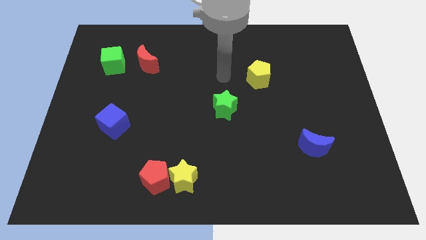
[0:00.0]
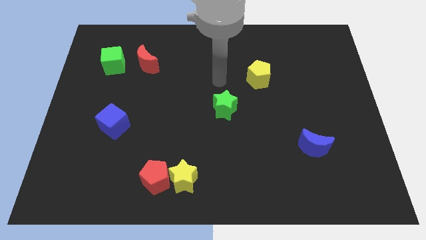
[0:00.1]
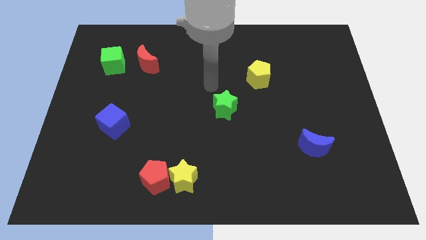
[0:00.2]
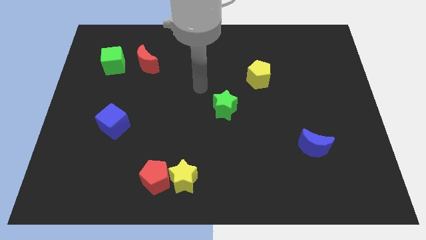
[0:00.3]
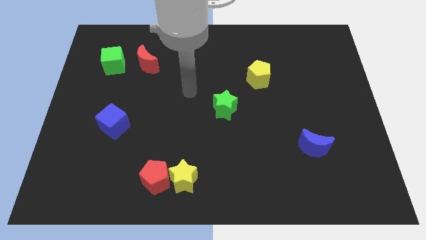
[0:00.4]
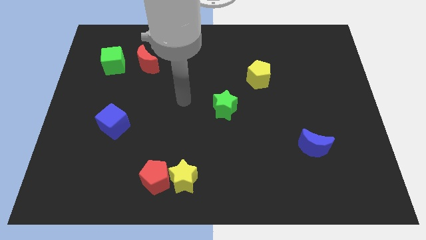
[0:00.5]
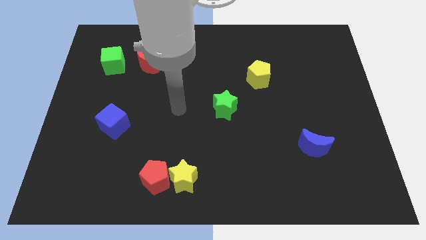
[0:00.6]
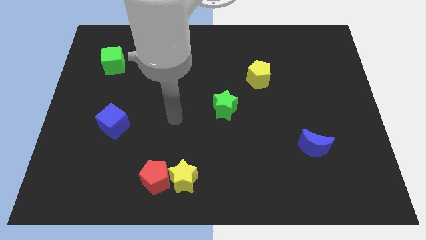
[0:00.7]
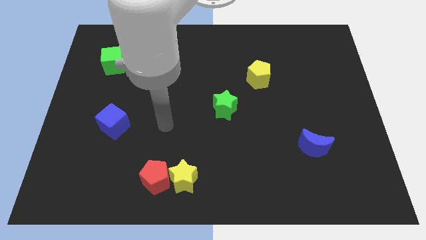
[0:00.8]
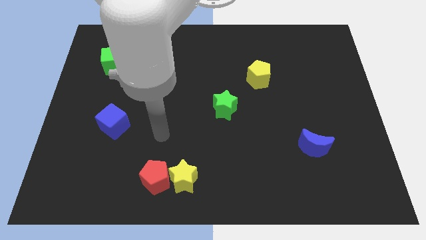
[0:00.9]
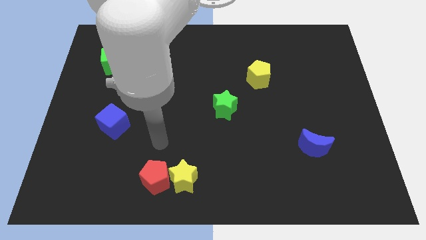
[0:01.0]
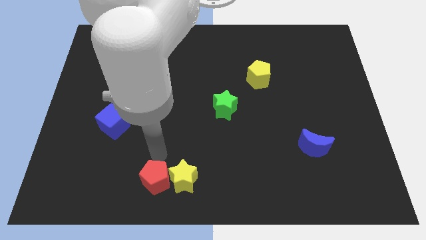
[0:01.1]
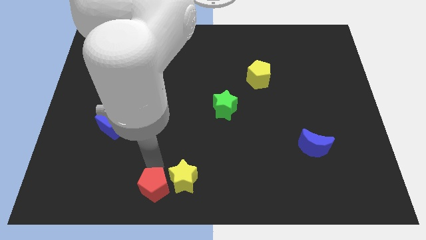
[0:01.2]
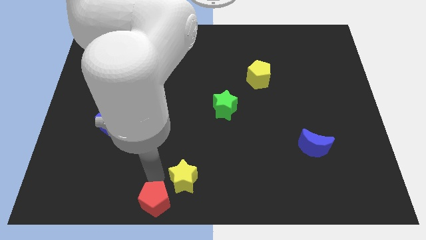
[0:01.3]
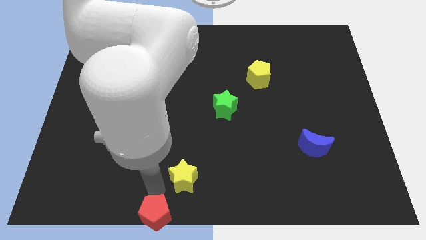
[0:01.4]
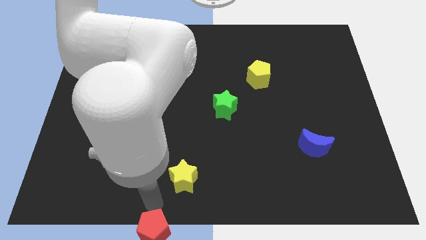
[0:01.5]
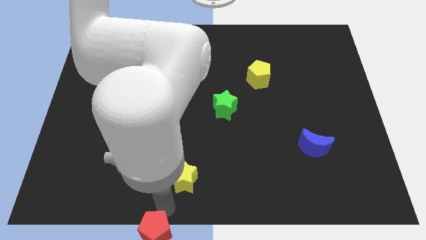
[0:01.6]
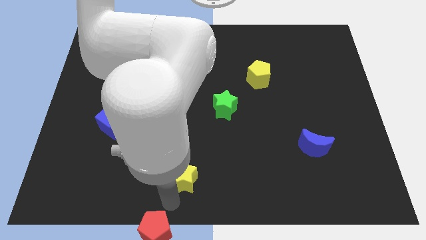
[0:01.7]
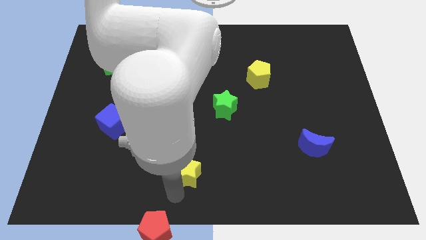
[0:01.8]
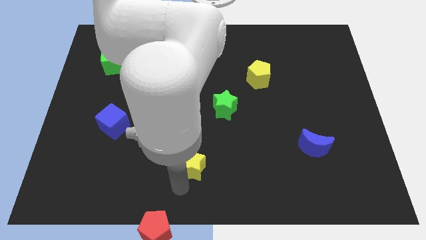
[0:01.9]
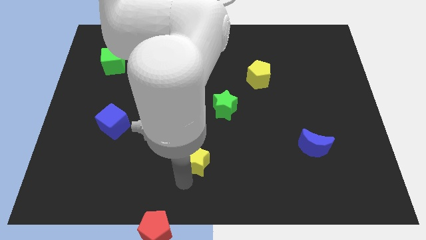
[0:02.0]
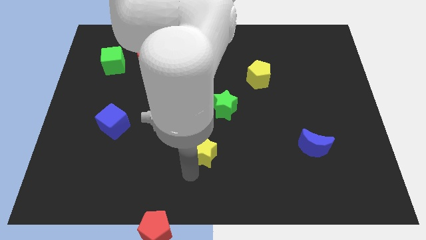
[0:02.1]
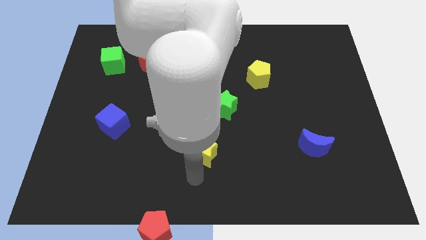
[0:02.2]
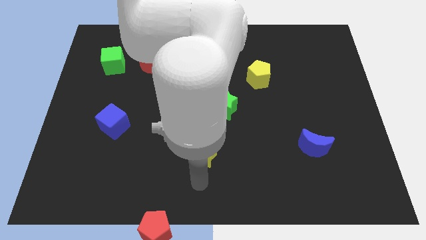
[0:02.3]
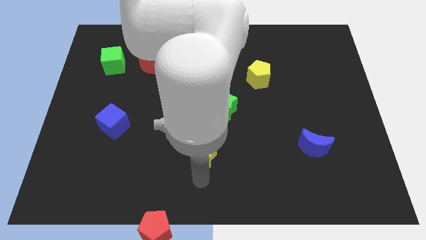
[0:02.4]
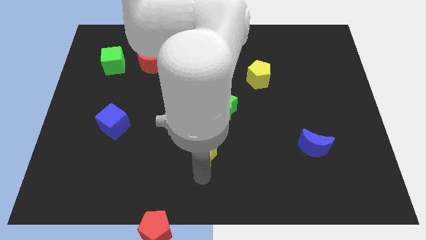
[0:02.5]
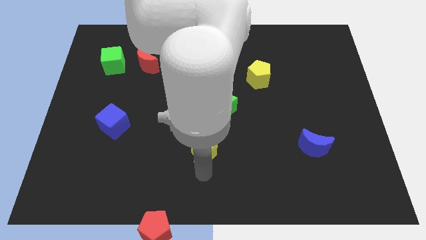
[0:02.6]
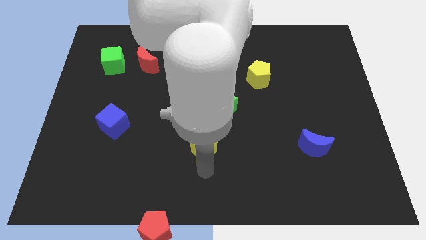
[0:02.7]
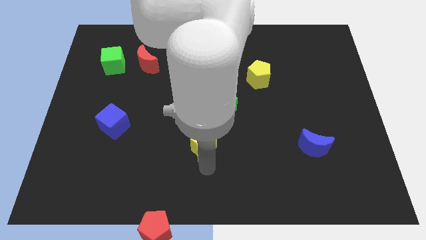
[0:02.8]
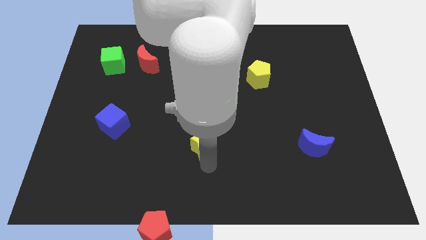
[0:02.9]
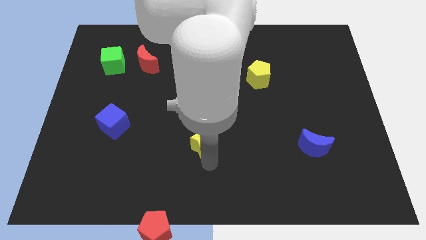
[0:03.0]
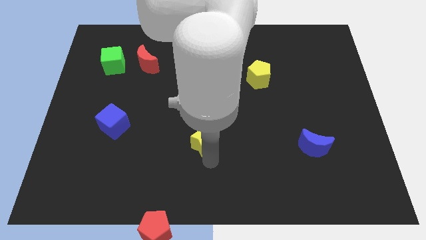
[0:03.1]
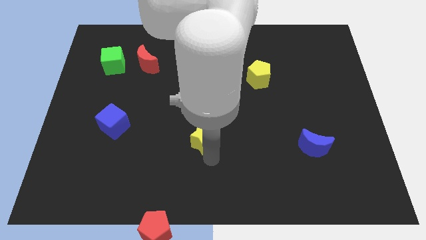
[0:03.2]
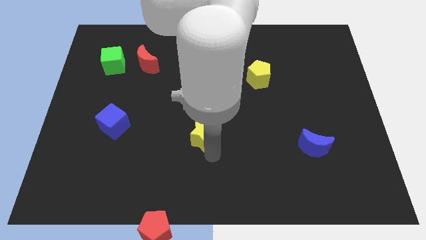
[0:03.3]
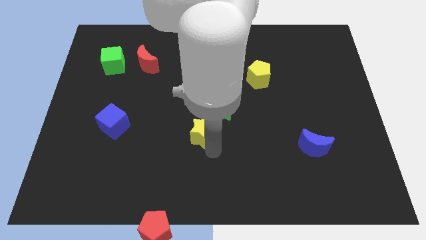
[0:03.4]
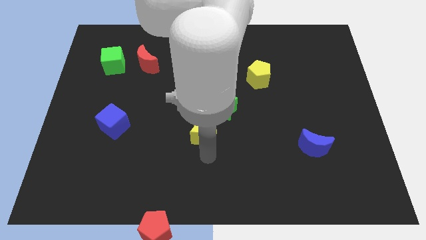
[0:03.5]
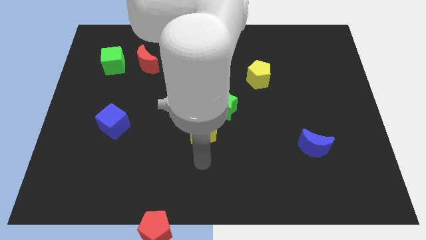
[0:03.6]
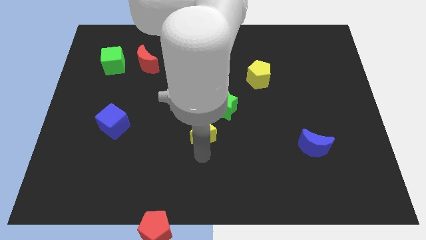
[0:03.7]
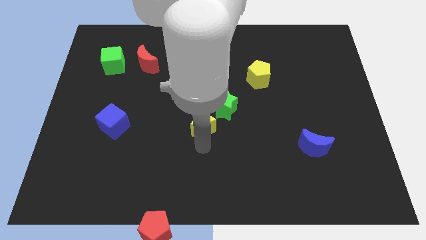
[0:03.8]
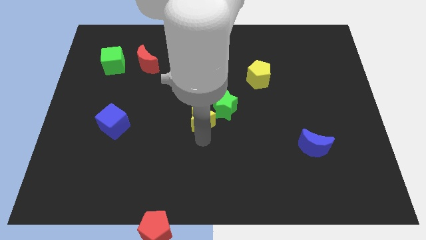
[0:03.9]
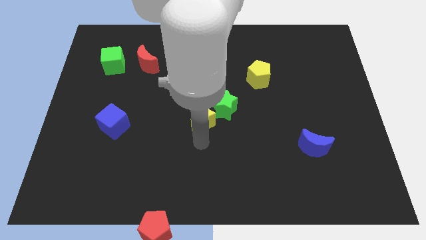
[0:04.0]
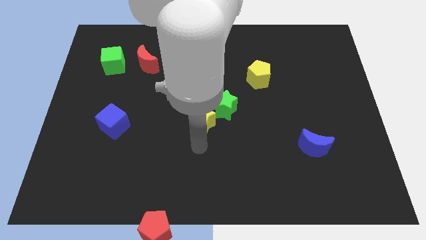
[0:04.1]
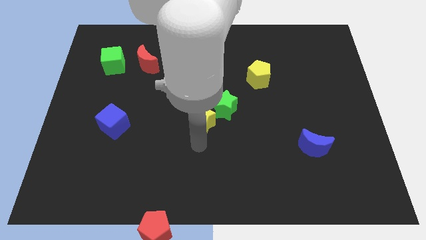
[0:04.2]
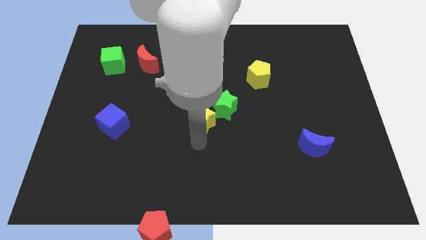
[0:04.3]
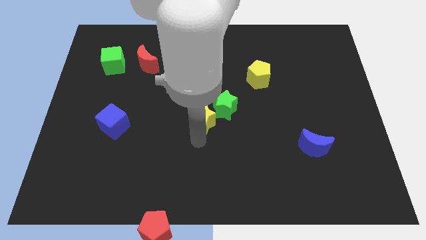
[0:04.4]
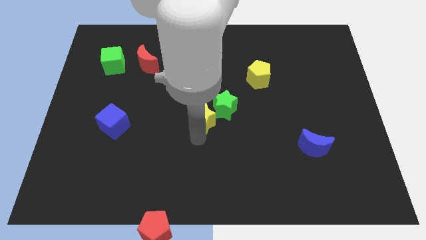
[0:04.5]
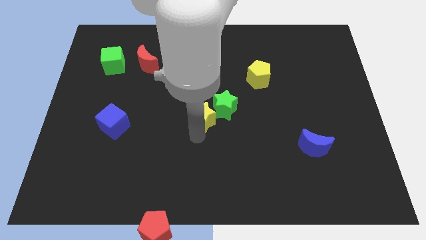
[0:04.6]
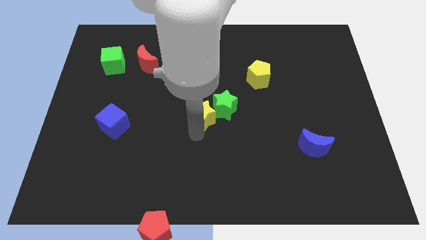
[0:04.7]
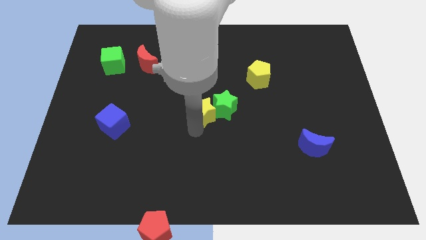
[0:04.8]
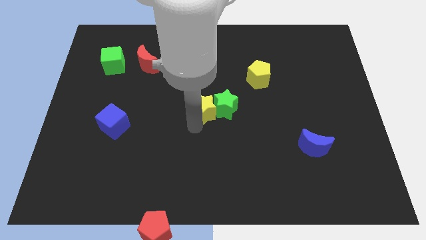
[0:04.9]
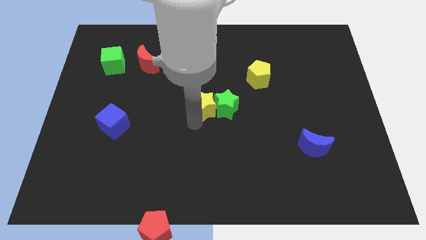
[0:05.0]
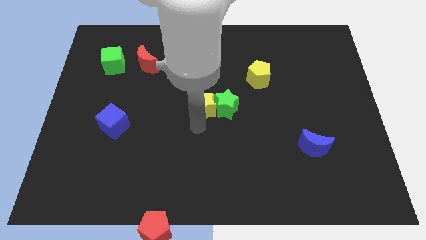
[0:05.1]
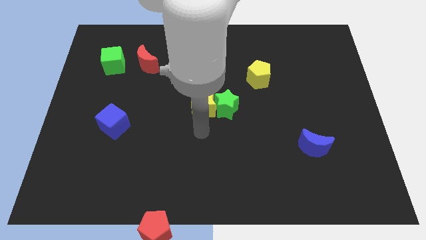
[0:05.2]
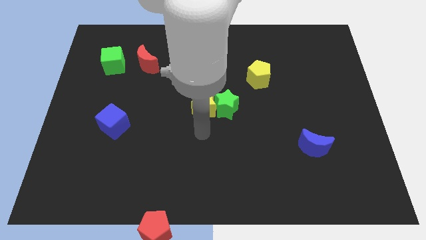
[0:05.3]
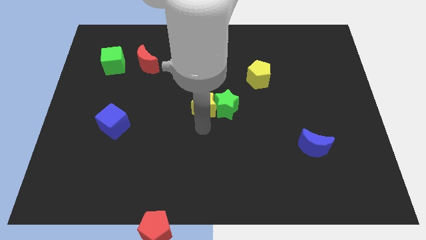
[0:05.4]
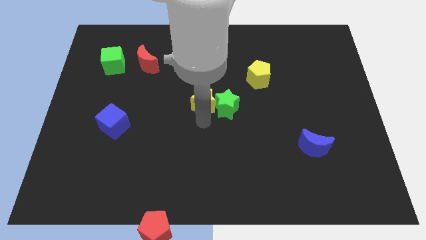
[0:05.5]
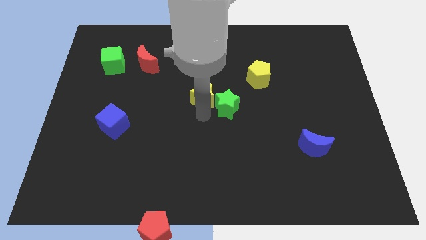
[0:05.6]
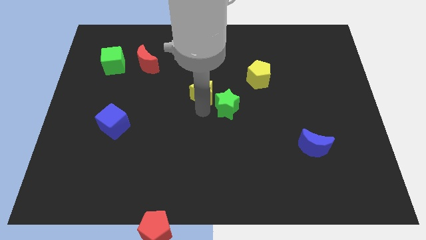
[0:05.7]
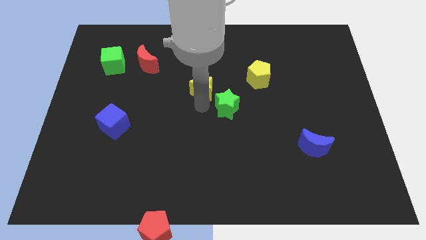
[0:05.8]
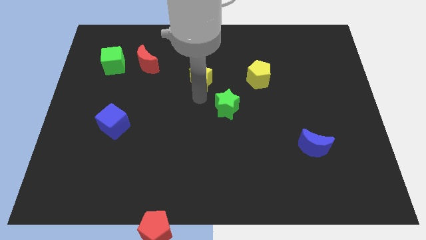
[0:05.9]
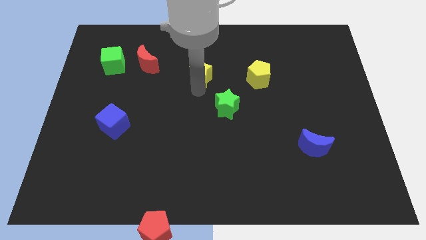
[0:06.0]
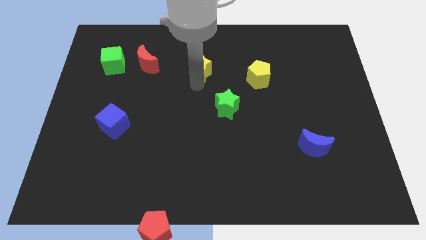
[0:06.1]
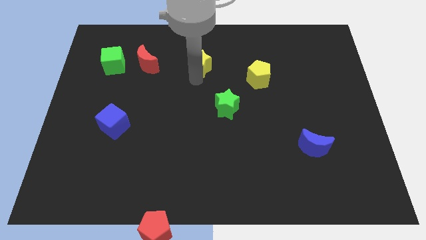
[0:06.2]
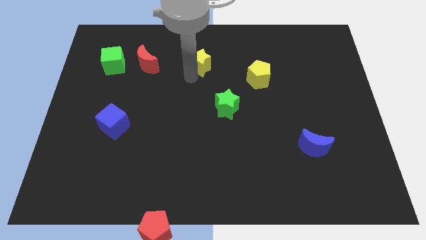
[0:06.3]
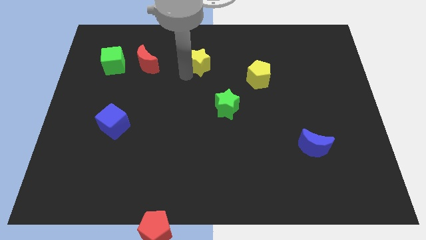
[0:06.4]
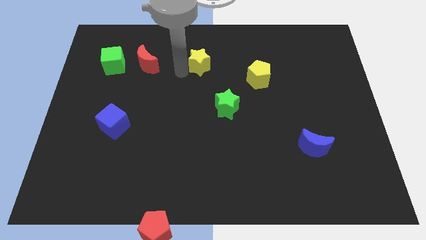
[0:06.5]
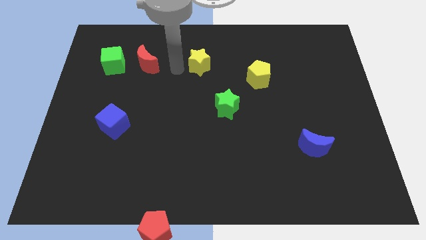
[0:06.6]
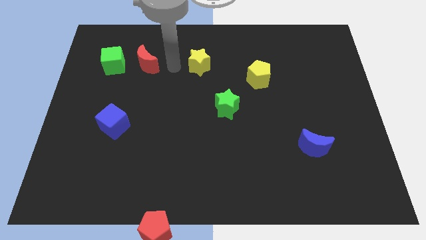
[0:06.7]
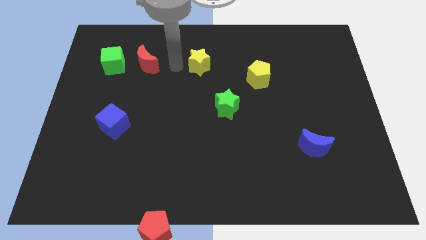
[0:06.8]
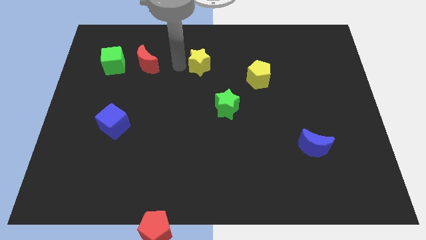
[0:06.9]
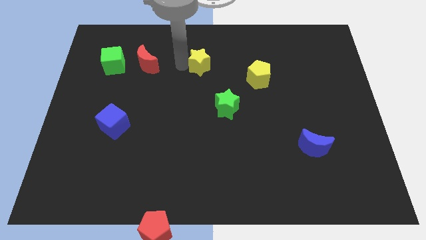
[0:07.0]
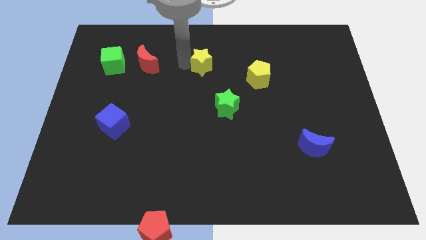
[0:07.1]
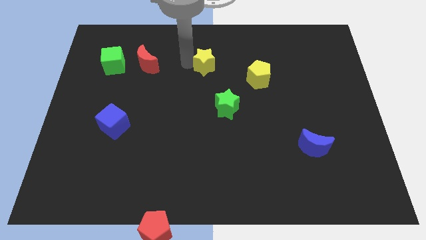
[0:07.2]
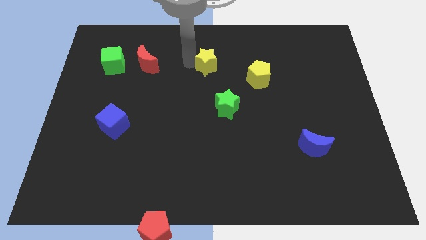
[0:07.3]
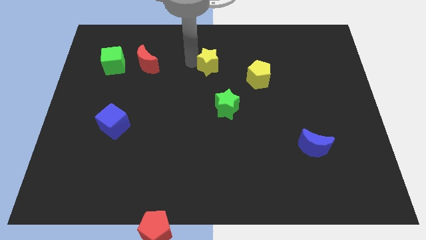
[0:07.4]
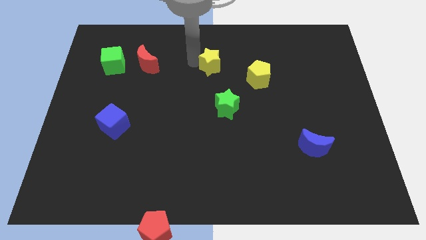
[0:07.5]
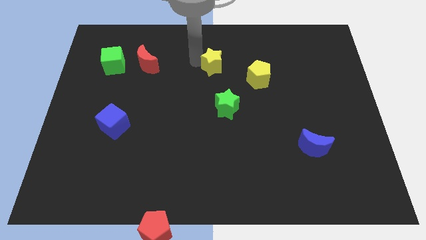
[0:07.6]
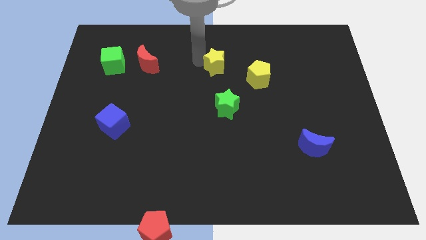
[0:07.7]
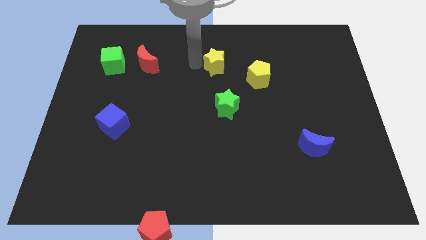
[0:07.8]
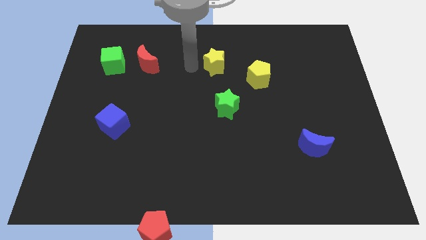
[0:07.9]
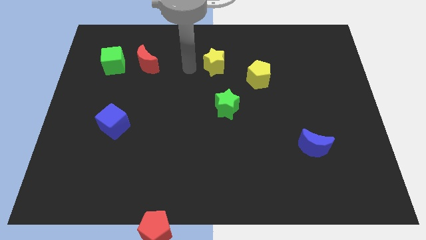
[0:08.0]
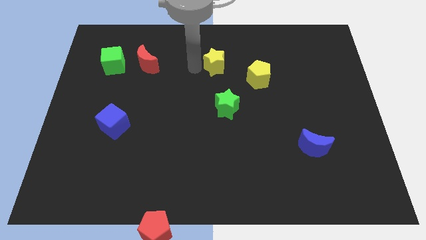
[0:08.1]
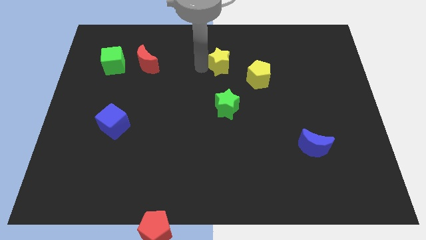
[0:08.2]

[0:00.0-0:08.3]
move the yellow star to the top left of the yellow pentagon

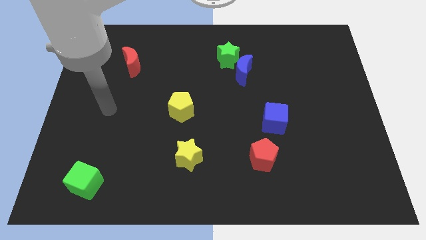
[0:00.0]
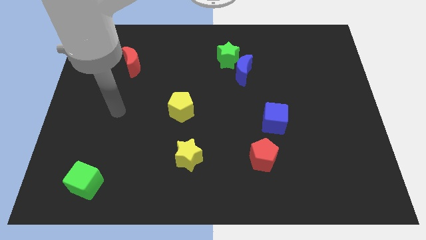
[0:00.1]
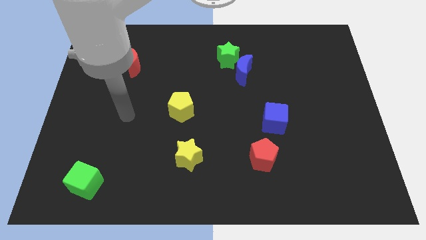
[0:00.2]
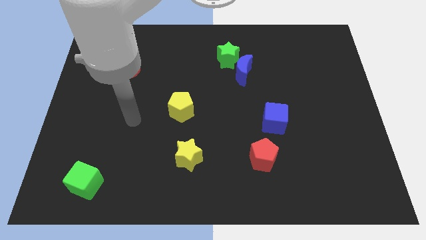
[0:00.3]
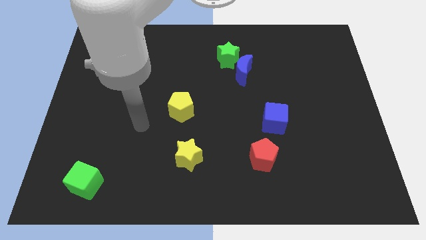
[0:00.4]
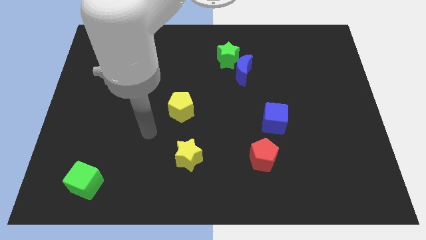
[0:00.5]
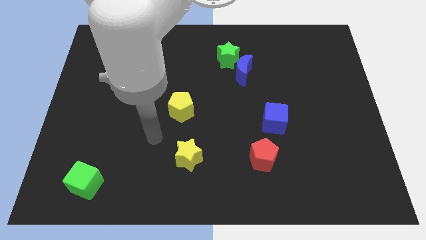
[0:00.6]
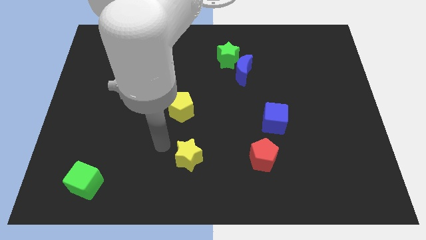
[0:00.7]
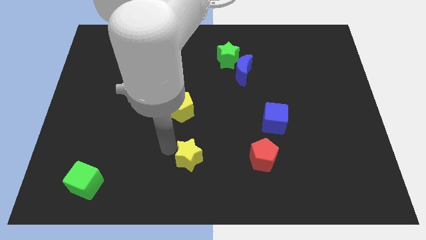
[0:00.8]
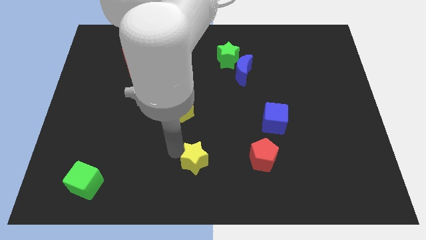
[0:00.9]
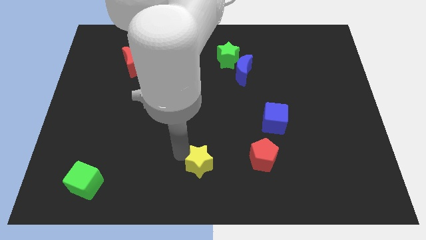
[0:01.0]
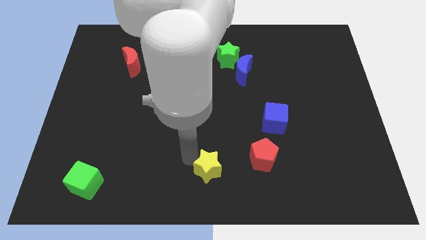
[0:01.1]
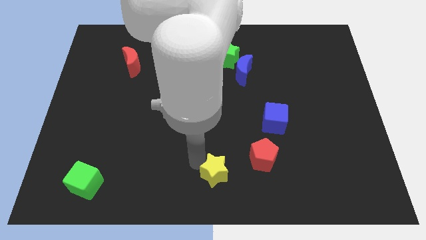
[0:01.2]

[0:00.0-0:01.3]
move the yellow star to the bottom left of the red pentagon
